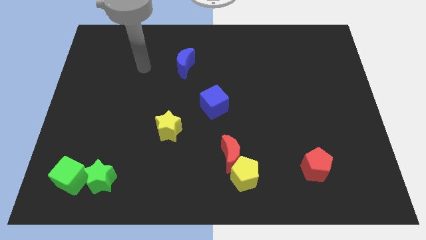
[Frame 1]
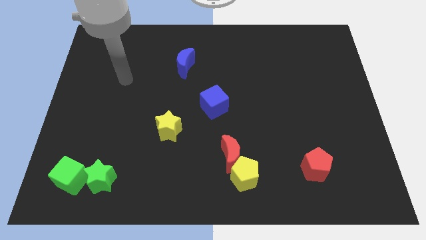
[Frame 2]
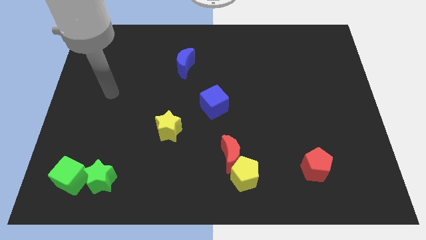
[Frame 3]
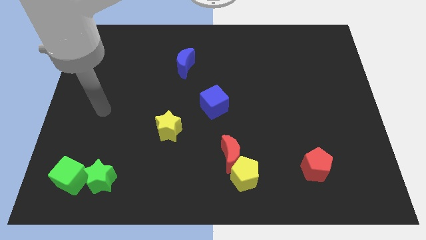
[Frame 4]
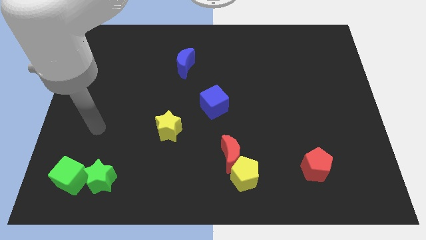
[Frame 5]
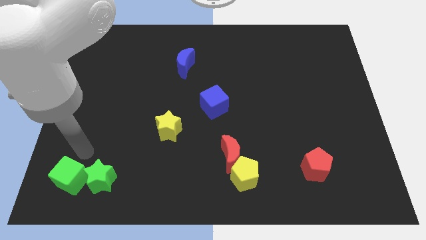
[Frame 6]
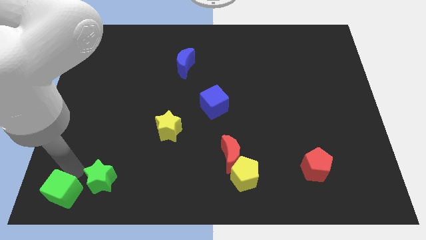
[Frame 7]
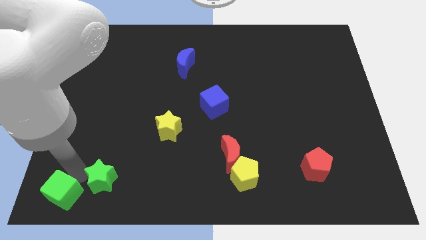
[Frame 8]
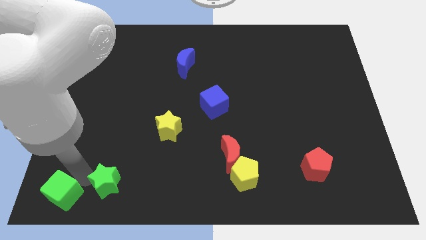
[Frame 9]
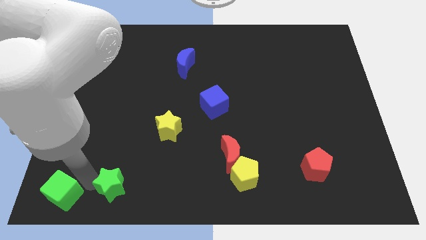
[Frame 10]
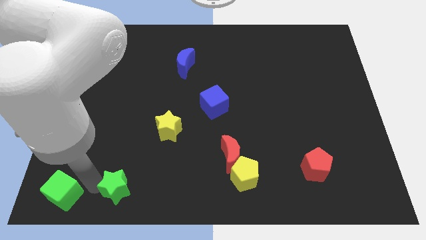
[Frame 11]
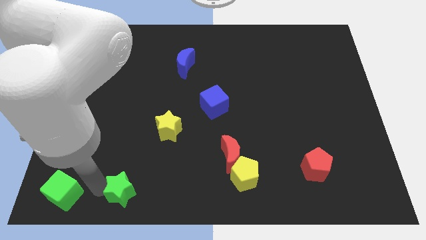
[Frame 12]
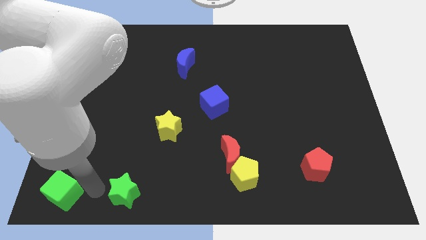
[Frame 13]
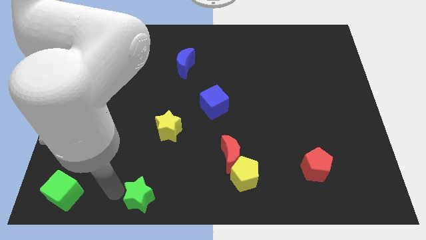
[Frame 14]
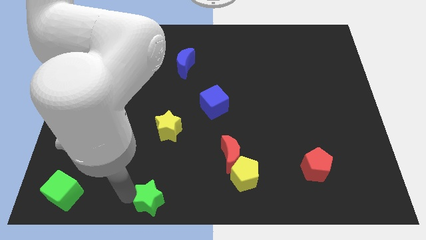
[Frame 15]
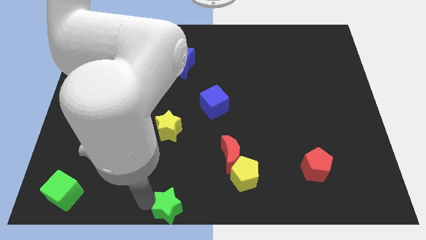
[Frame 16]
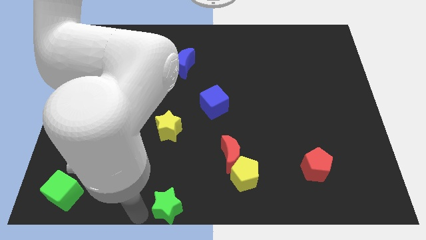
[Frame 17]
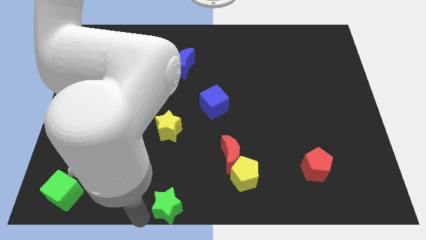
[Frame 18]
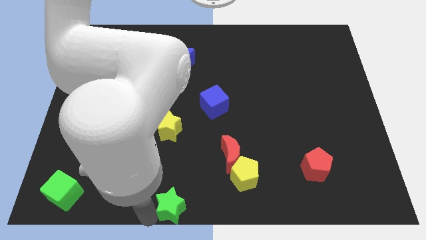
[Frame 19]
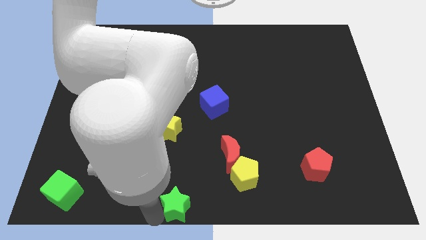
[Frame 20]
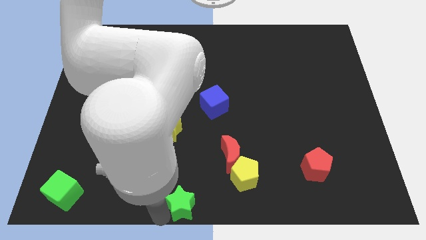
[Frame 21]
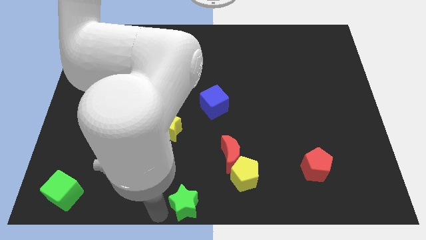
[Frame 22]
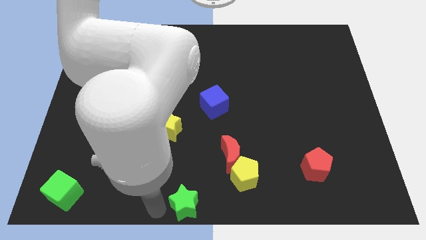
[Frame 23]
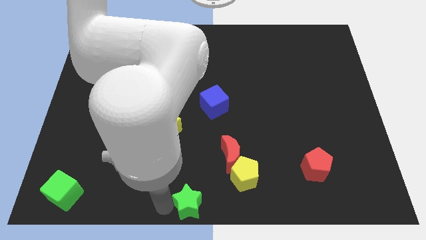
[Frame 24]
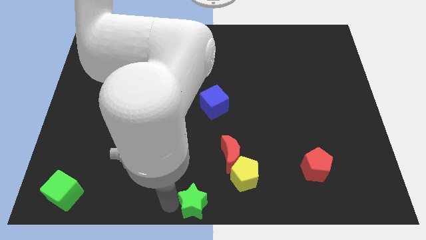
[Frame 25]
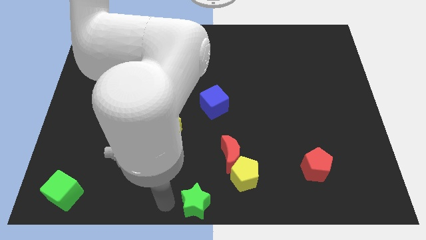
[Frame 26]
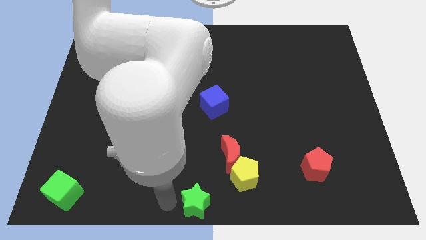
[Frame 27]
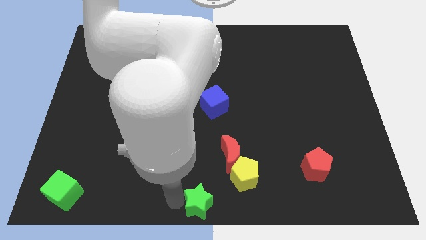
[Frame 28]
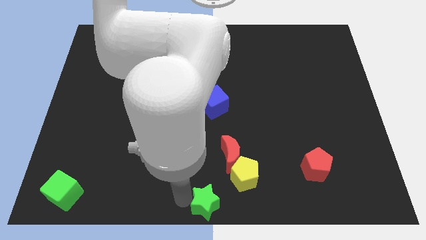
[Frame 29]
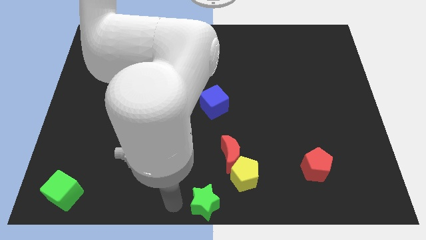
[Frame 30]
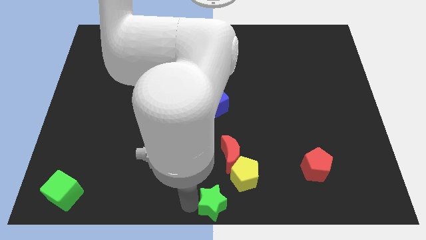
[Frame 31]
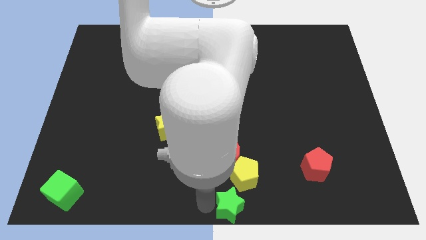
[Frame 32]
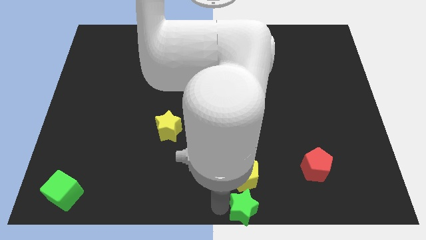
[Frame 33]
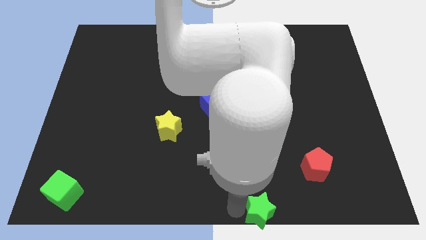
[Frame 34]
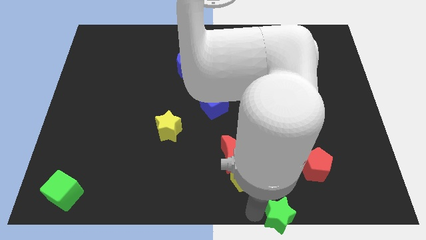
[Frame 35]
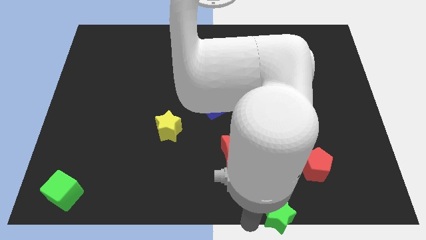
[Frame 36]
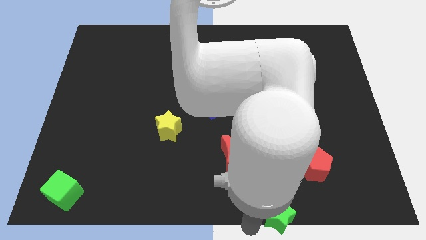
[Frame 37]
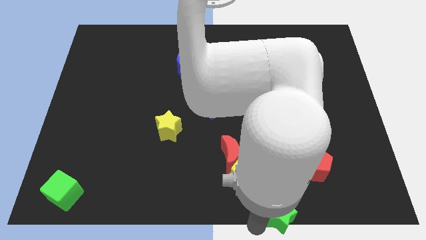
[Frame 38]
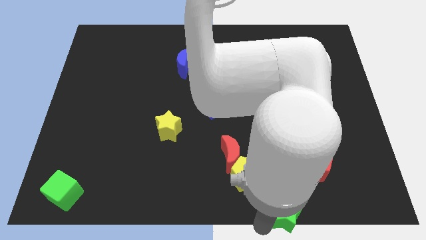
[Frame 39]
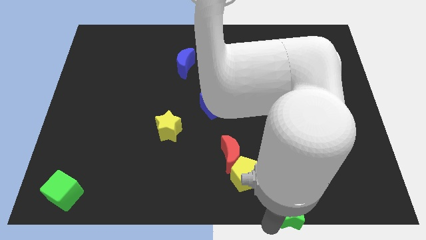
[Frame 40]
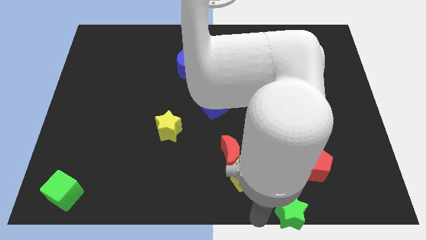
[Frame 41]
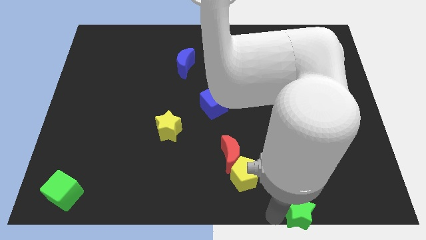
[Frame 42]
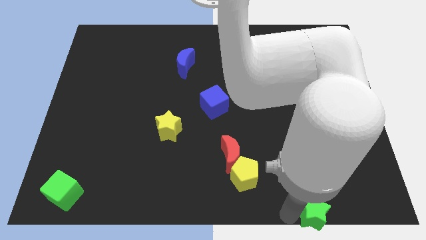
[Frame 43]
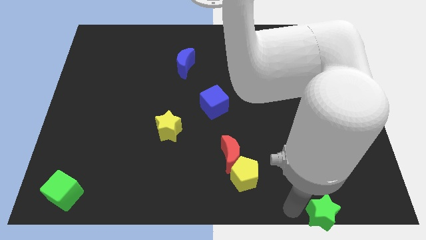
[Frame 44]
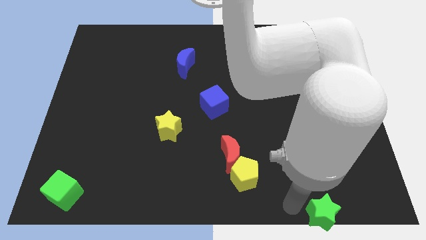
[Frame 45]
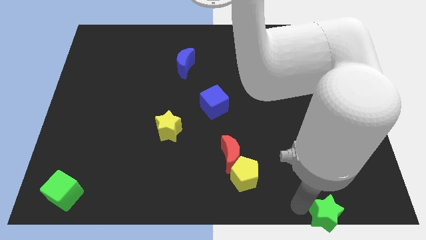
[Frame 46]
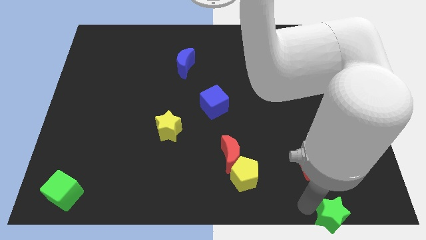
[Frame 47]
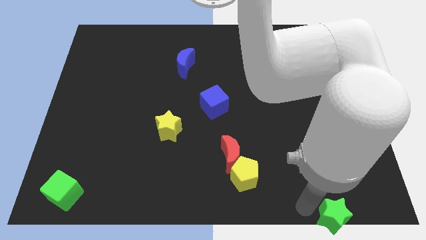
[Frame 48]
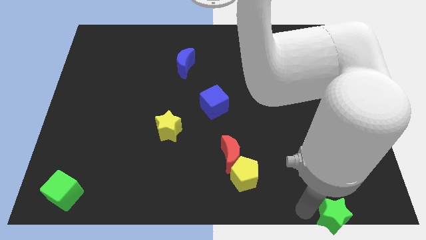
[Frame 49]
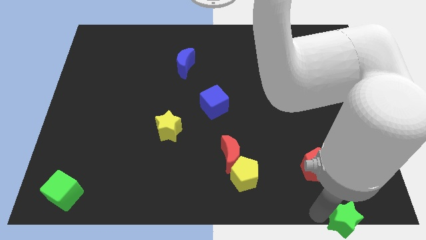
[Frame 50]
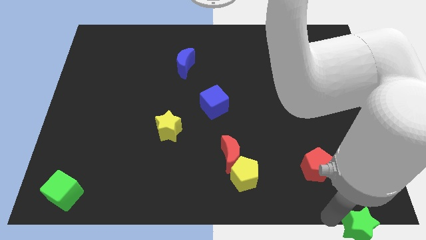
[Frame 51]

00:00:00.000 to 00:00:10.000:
put the green star to the lower right corner

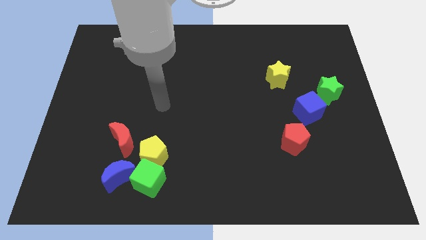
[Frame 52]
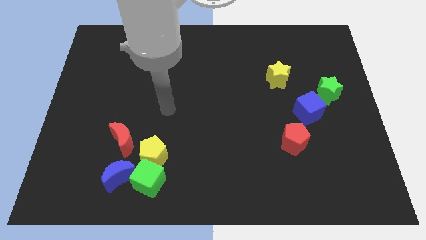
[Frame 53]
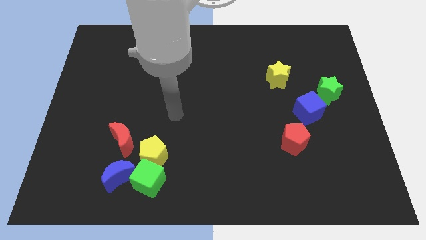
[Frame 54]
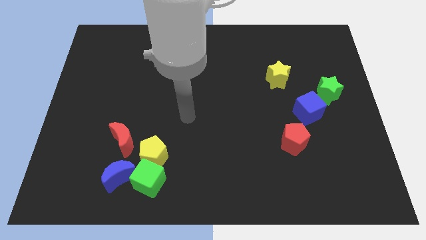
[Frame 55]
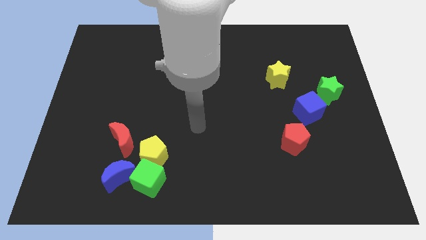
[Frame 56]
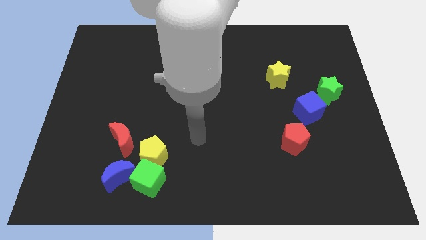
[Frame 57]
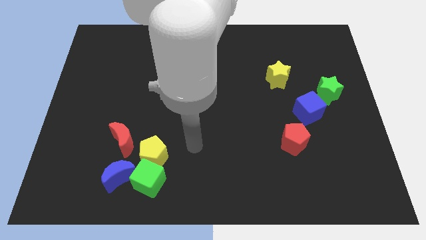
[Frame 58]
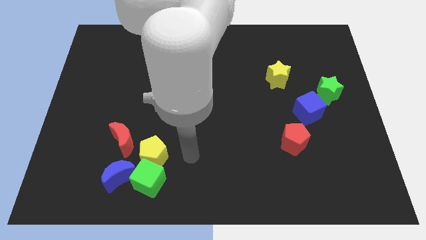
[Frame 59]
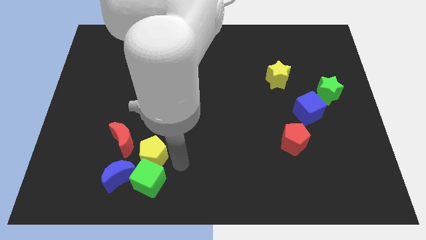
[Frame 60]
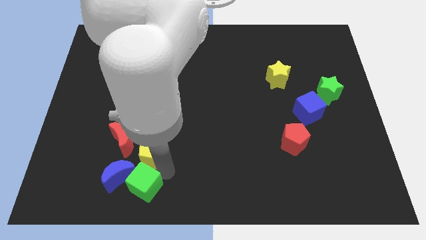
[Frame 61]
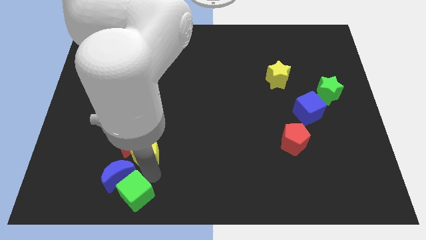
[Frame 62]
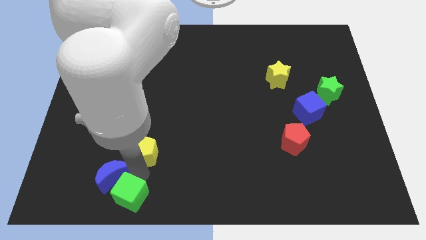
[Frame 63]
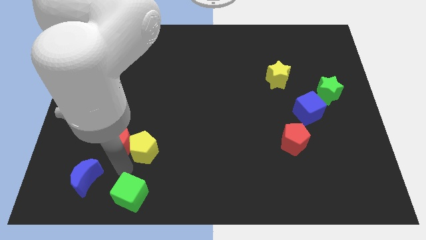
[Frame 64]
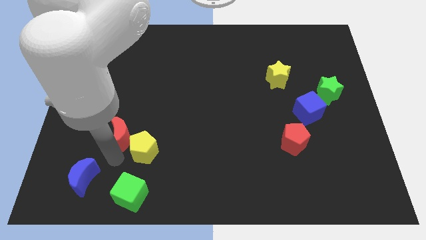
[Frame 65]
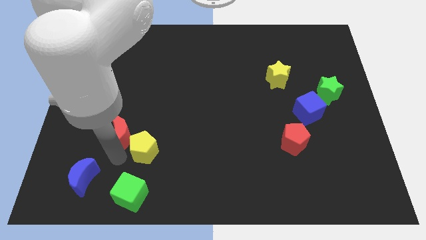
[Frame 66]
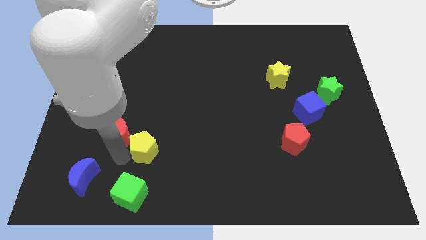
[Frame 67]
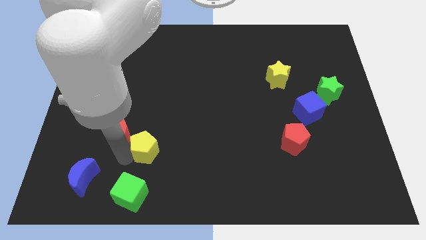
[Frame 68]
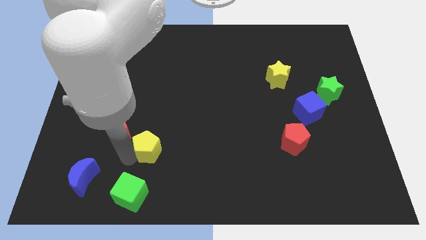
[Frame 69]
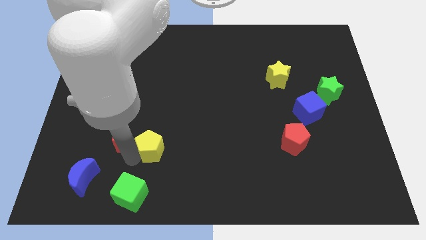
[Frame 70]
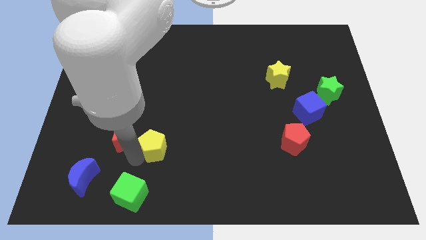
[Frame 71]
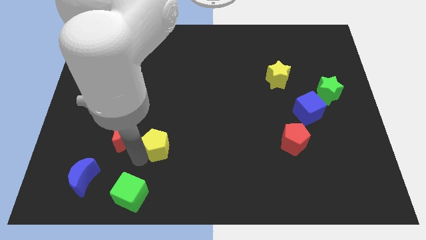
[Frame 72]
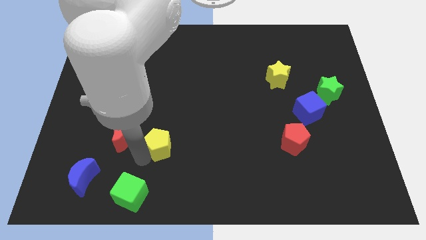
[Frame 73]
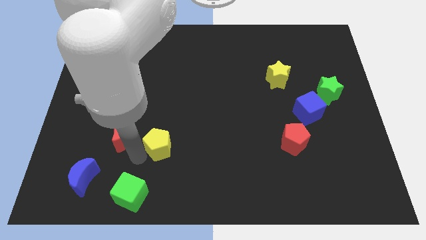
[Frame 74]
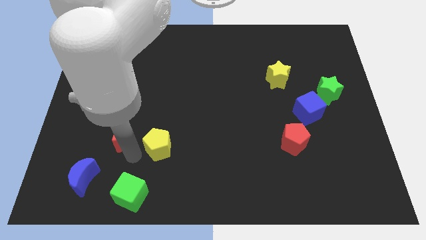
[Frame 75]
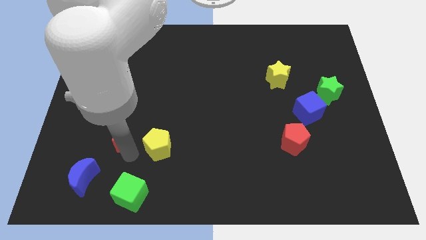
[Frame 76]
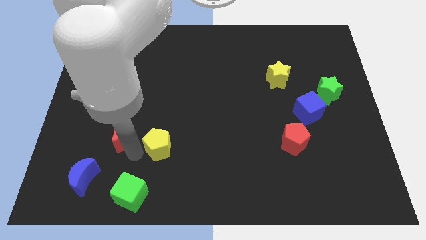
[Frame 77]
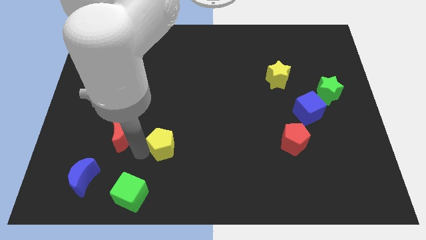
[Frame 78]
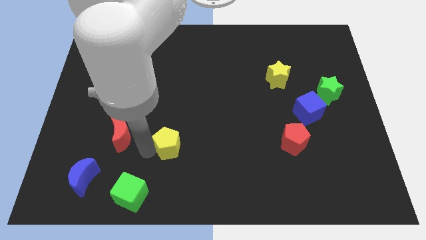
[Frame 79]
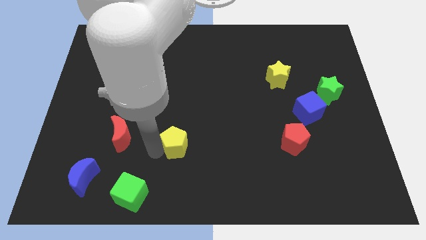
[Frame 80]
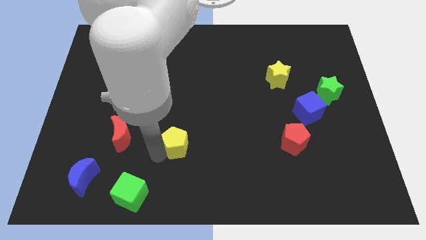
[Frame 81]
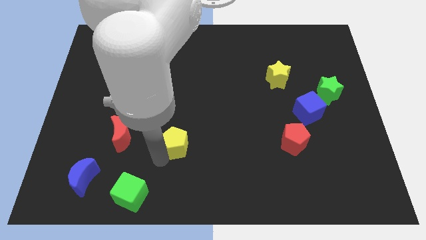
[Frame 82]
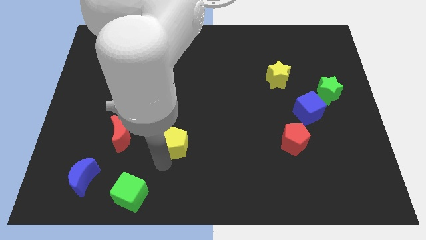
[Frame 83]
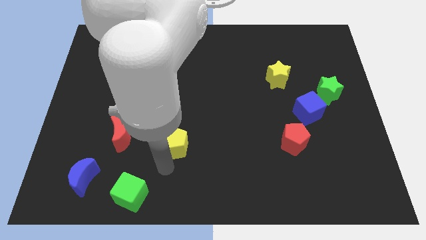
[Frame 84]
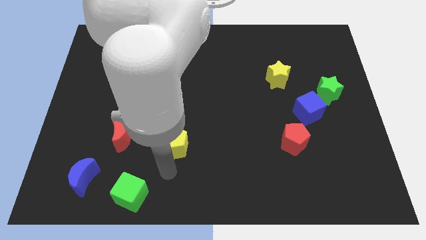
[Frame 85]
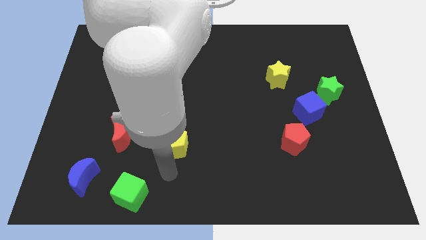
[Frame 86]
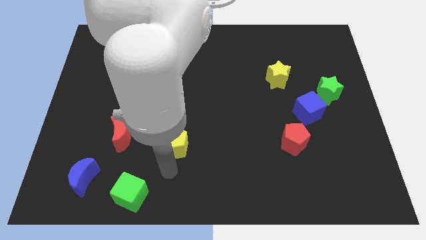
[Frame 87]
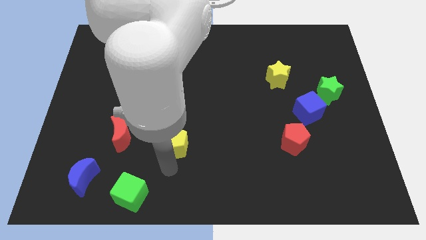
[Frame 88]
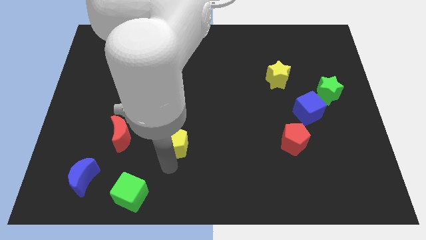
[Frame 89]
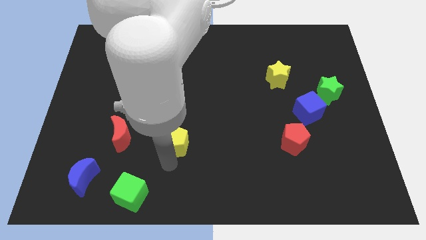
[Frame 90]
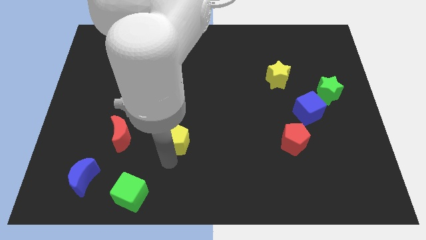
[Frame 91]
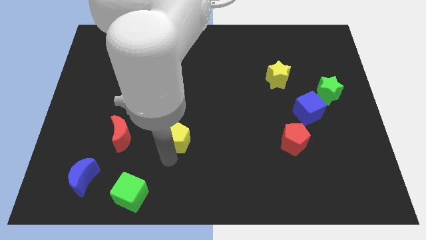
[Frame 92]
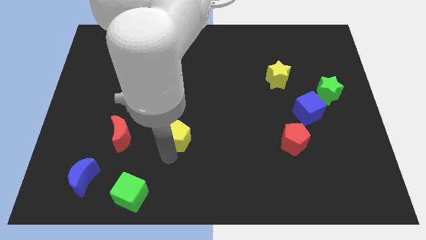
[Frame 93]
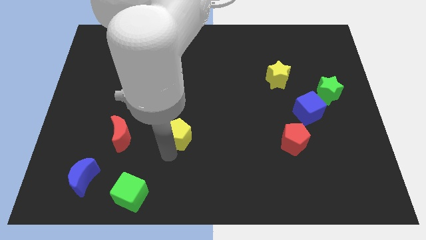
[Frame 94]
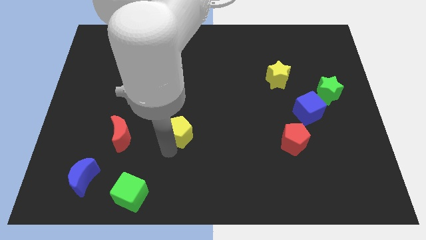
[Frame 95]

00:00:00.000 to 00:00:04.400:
slide the yellow pentagon to the center
